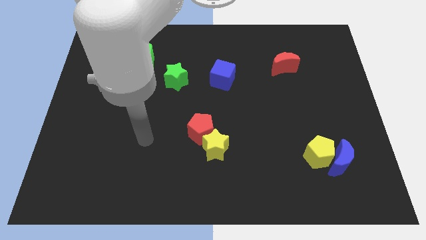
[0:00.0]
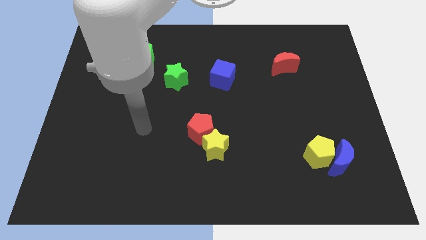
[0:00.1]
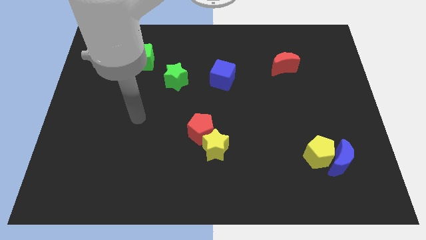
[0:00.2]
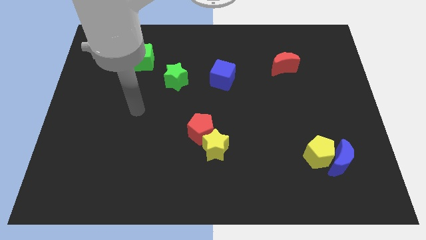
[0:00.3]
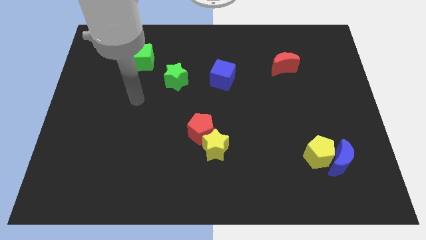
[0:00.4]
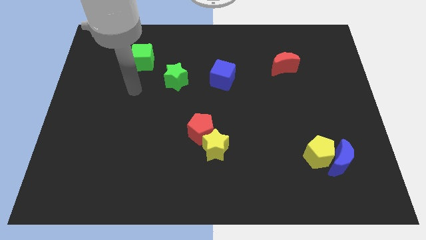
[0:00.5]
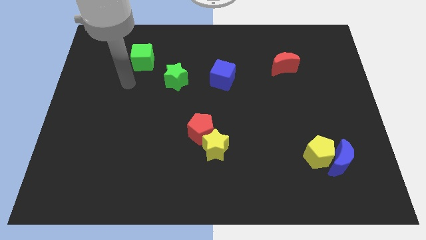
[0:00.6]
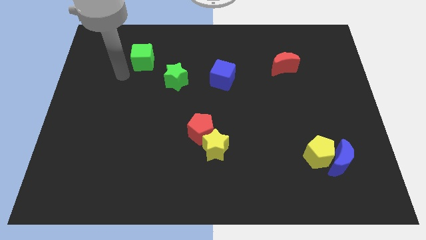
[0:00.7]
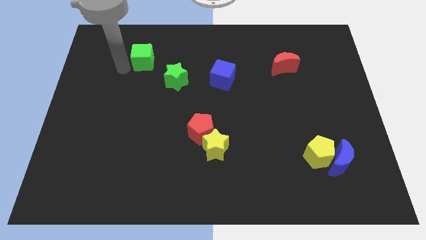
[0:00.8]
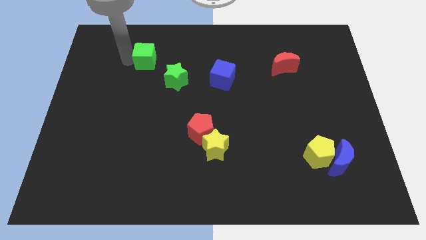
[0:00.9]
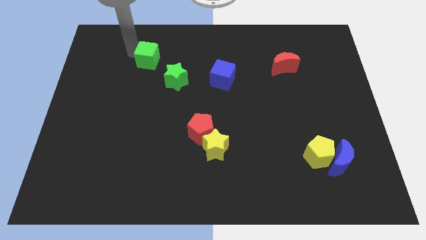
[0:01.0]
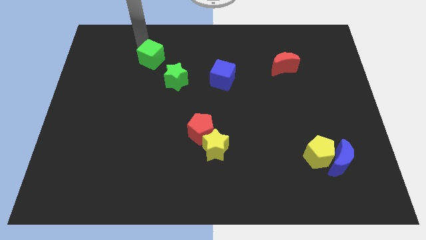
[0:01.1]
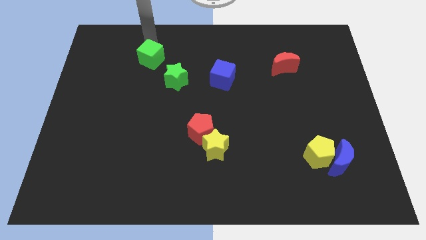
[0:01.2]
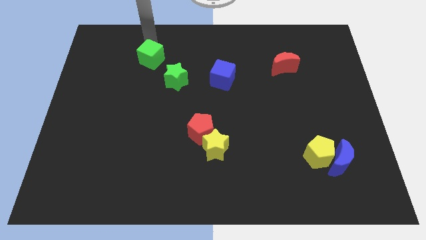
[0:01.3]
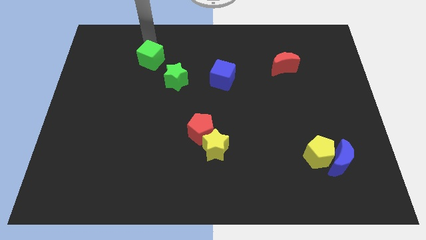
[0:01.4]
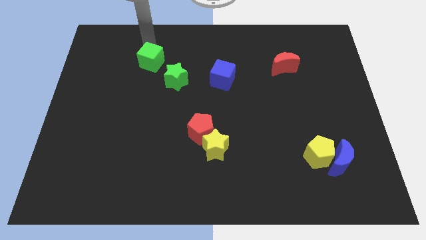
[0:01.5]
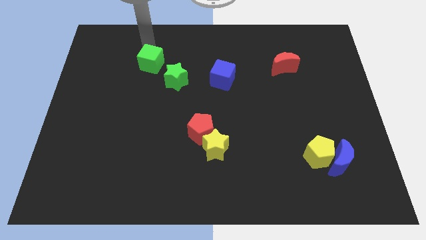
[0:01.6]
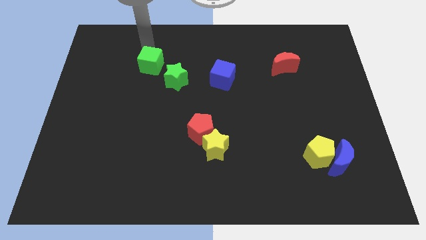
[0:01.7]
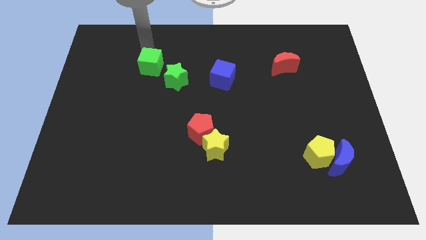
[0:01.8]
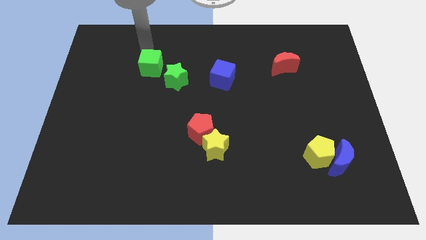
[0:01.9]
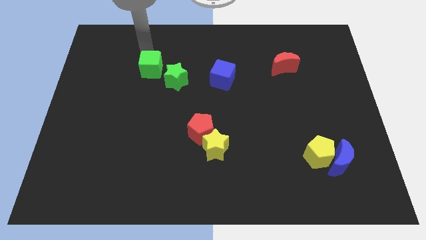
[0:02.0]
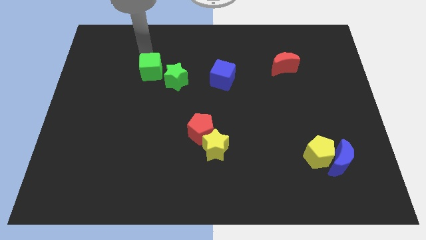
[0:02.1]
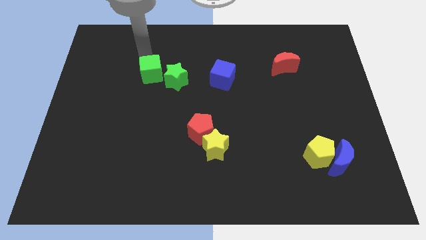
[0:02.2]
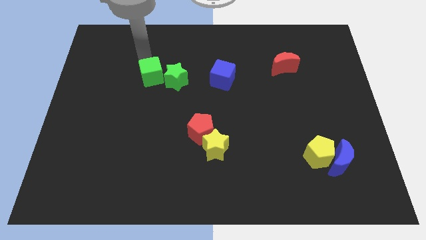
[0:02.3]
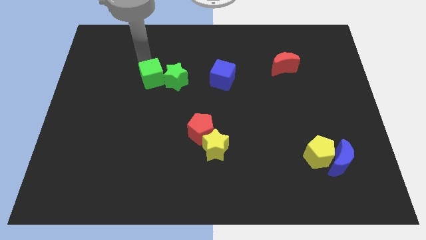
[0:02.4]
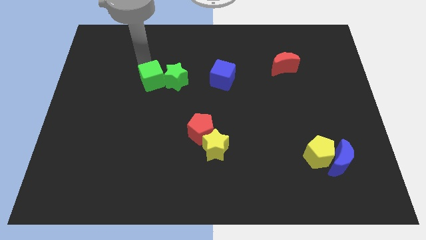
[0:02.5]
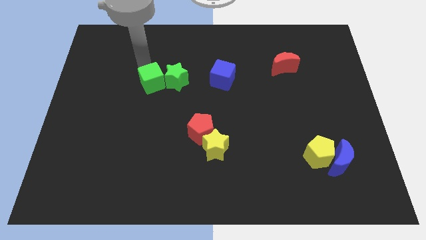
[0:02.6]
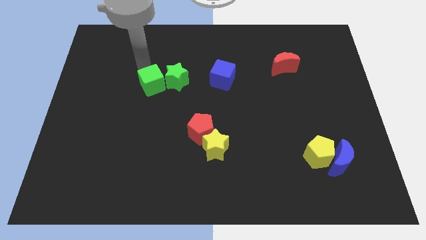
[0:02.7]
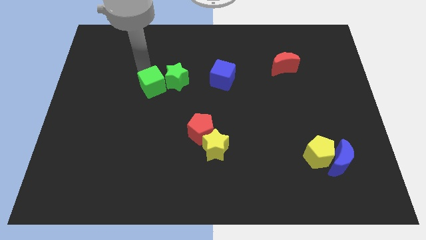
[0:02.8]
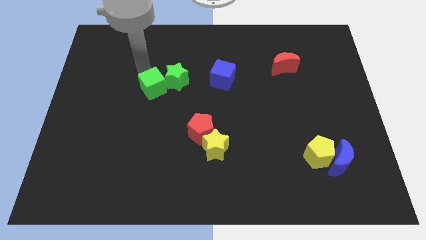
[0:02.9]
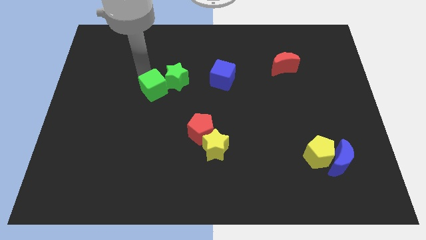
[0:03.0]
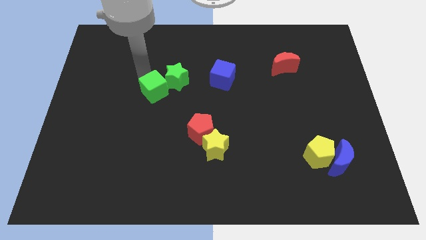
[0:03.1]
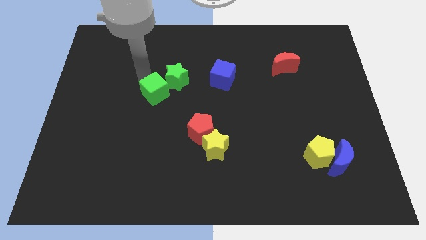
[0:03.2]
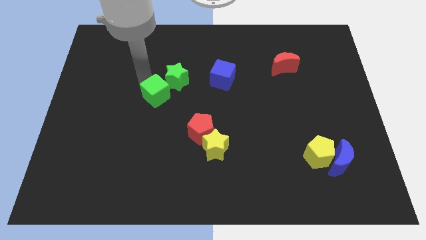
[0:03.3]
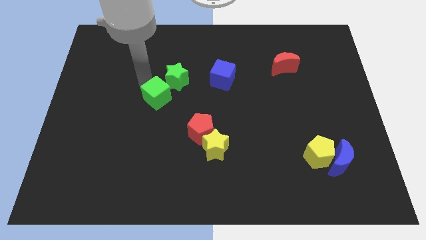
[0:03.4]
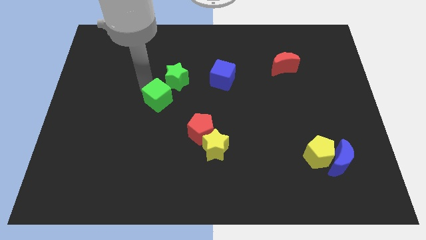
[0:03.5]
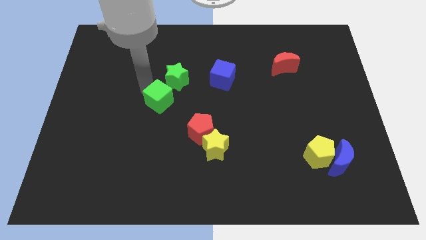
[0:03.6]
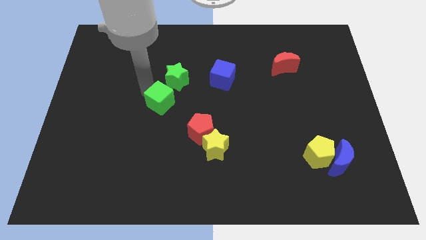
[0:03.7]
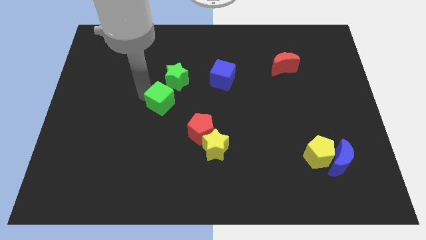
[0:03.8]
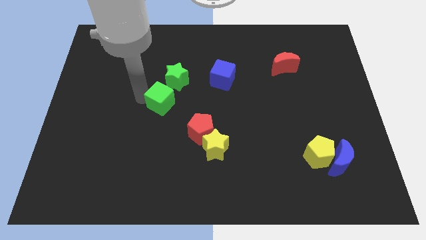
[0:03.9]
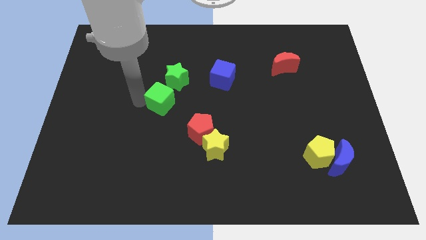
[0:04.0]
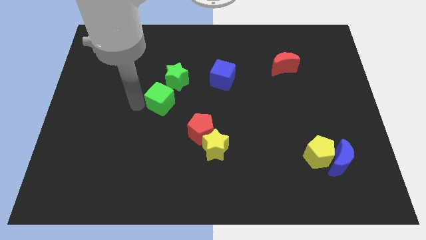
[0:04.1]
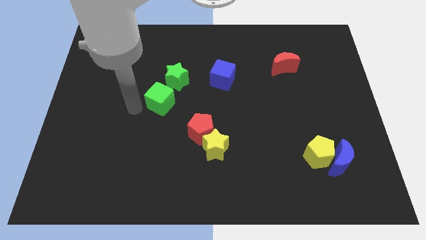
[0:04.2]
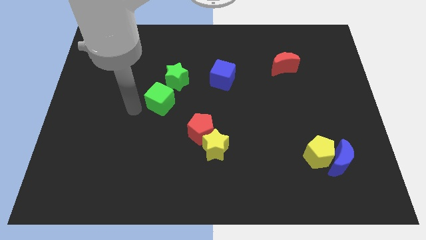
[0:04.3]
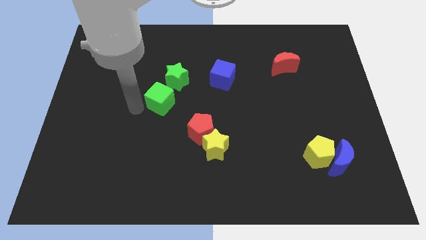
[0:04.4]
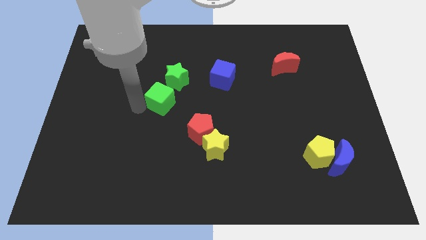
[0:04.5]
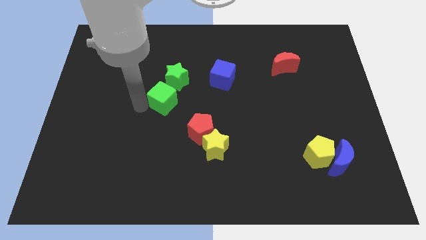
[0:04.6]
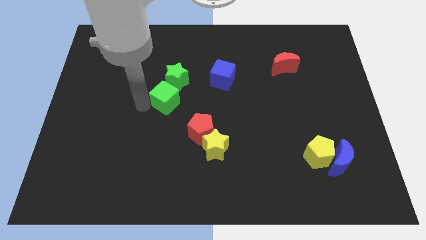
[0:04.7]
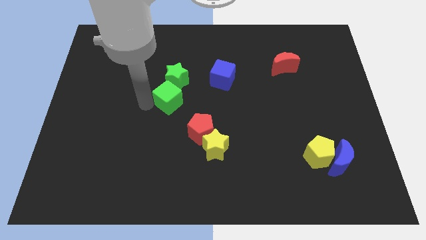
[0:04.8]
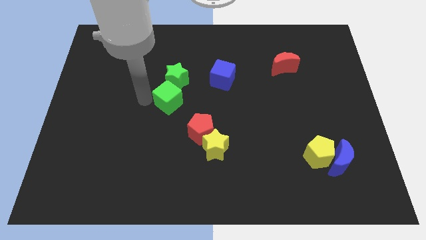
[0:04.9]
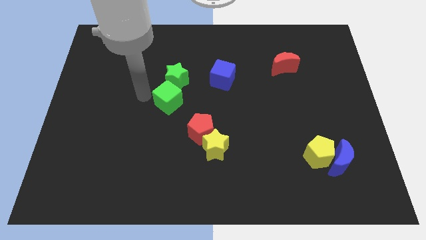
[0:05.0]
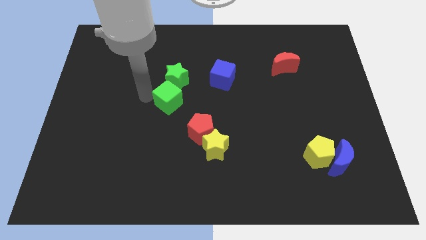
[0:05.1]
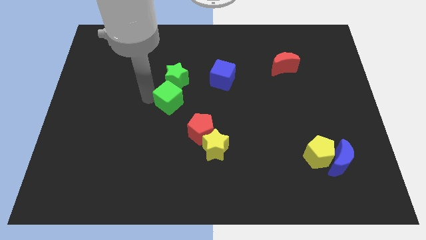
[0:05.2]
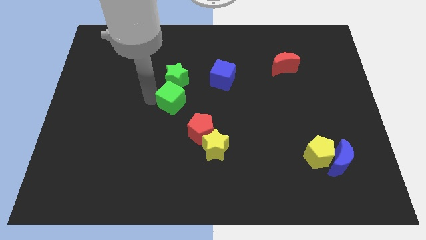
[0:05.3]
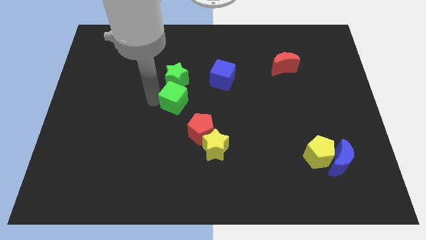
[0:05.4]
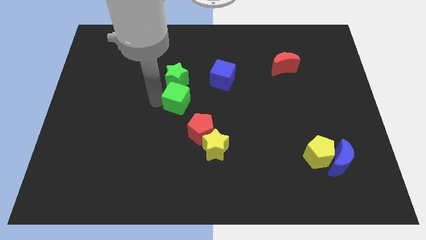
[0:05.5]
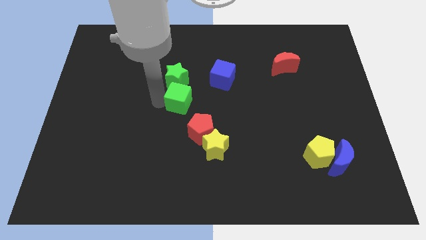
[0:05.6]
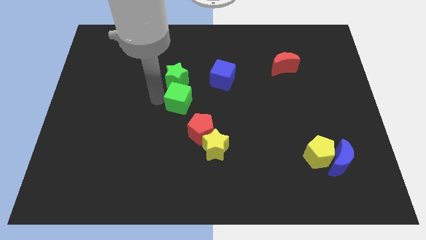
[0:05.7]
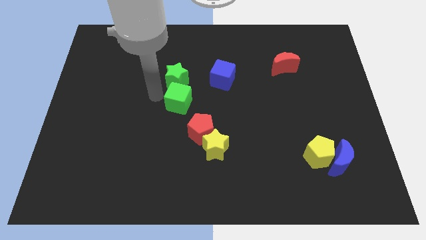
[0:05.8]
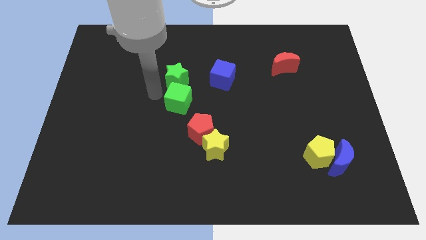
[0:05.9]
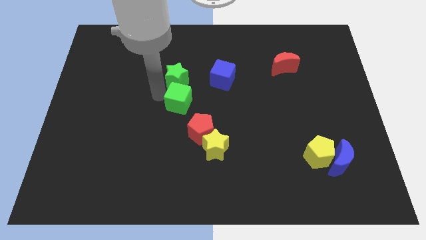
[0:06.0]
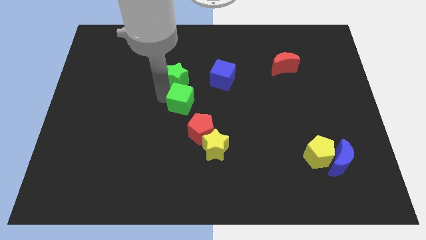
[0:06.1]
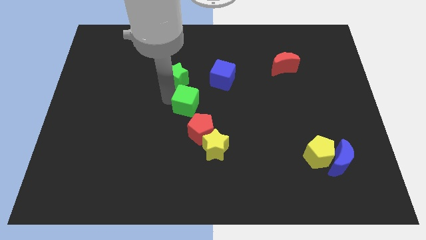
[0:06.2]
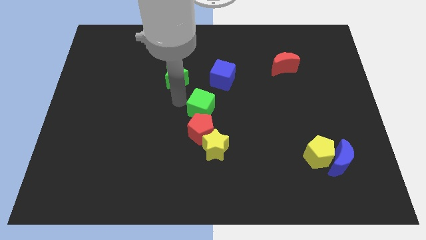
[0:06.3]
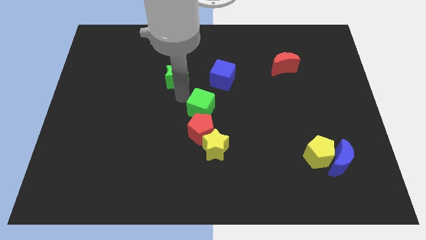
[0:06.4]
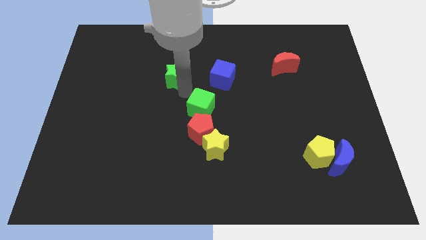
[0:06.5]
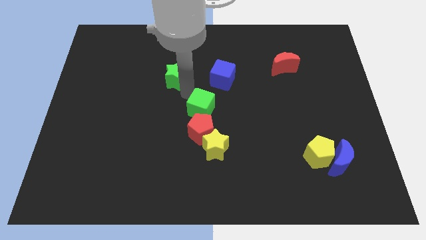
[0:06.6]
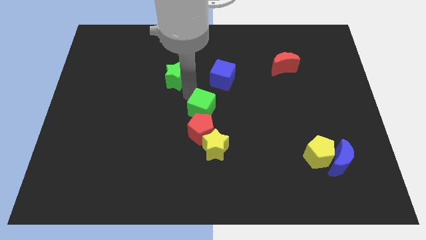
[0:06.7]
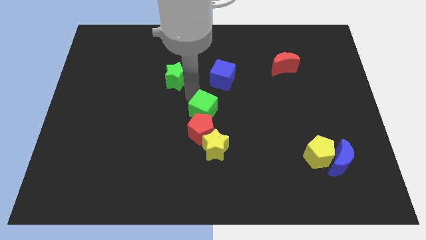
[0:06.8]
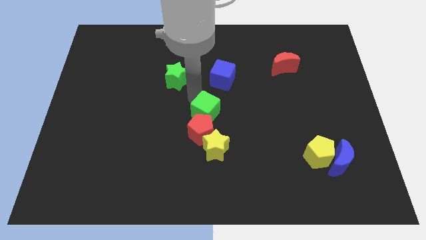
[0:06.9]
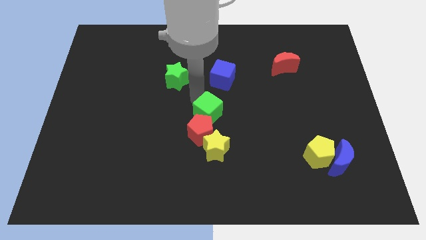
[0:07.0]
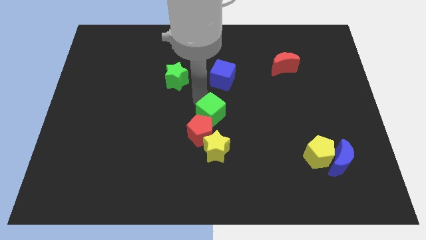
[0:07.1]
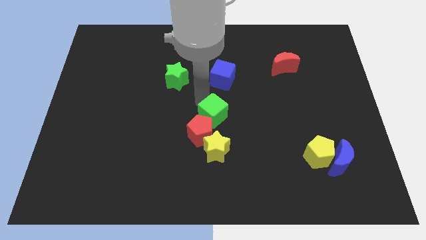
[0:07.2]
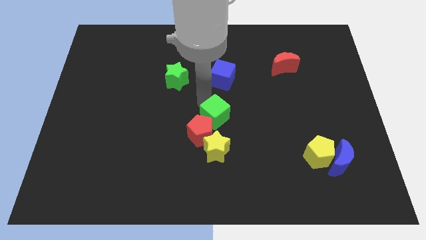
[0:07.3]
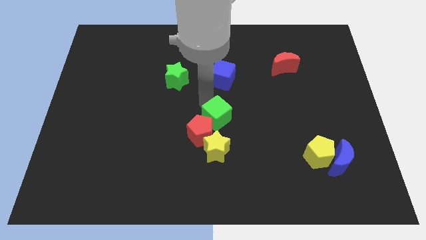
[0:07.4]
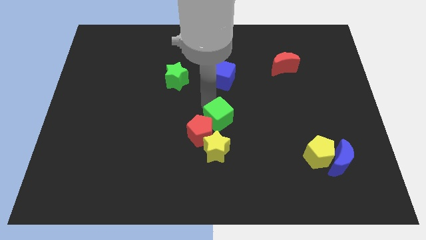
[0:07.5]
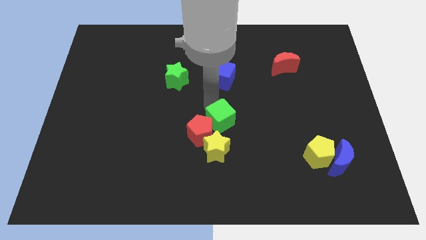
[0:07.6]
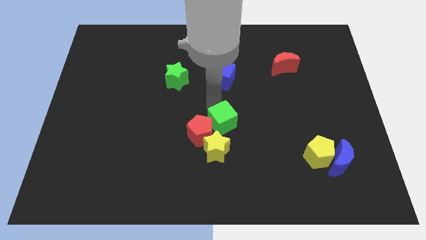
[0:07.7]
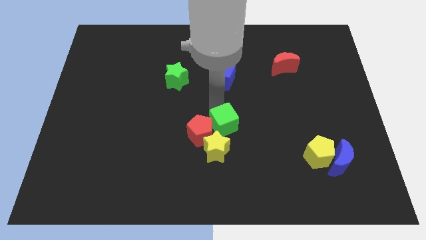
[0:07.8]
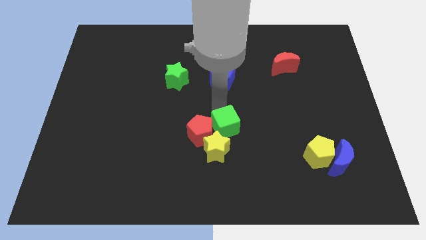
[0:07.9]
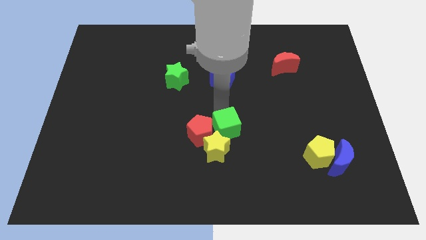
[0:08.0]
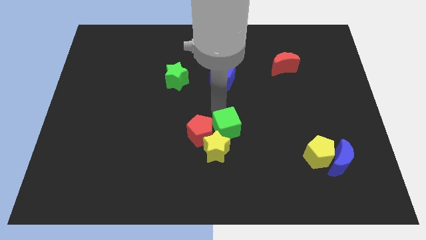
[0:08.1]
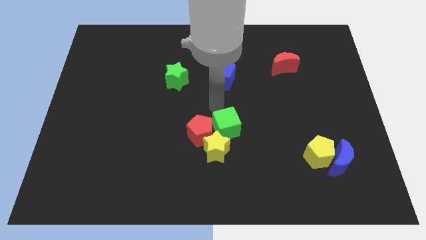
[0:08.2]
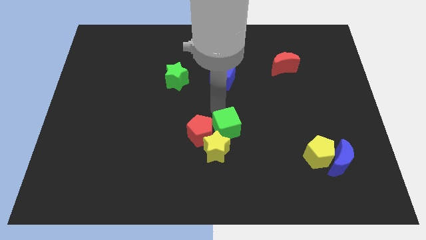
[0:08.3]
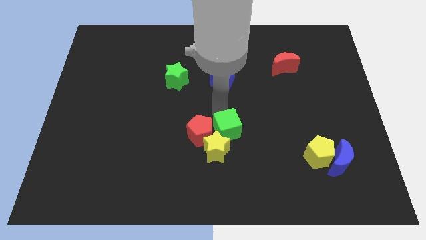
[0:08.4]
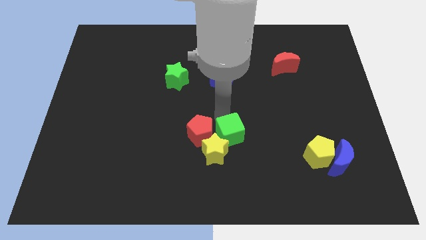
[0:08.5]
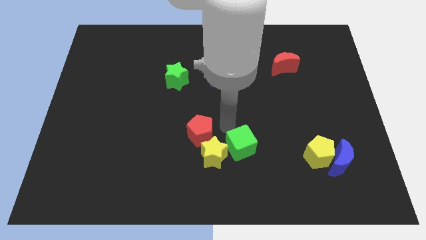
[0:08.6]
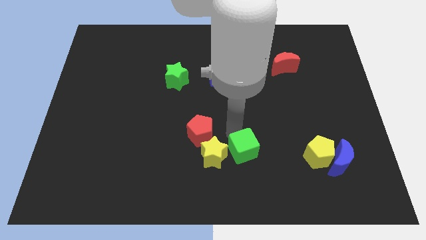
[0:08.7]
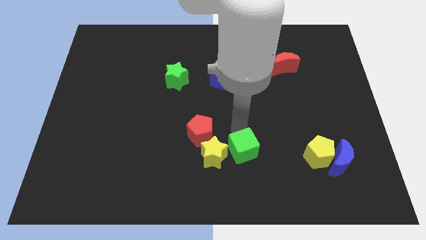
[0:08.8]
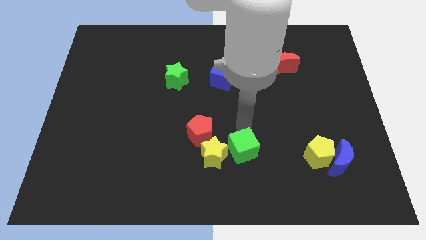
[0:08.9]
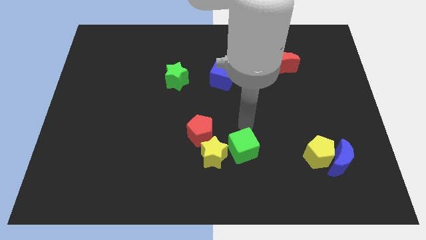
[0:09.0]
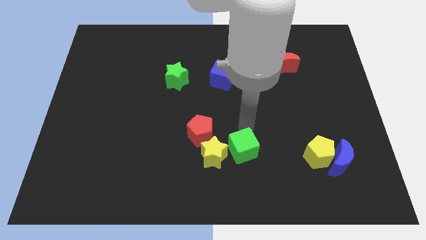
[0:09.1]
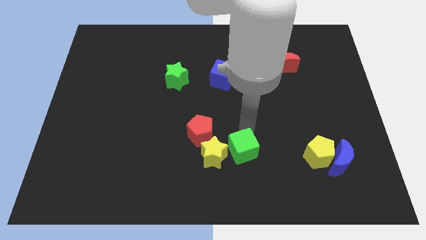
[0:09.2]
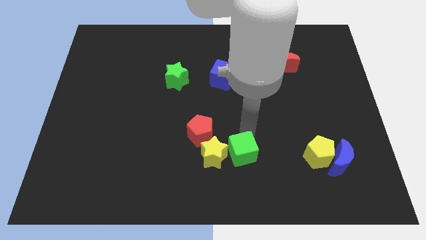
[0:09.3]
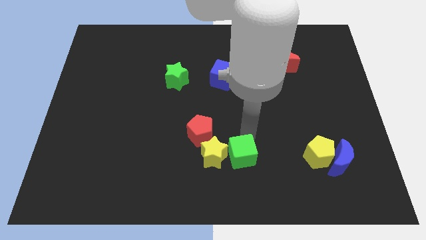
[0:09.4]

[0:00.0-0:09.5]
push the green cube to the bottom right side of the yellow star
